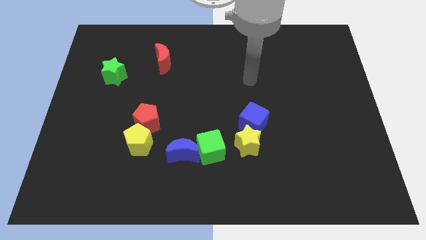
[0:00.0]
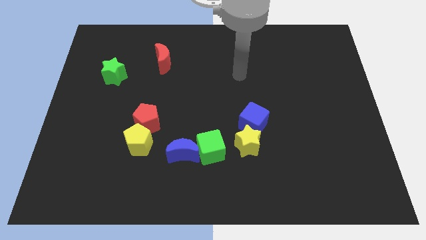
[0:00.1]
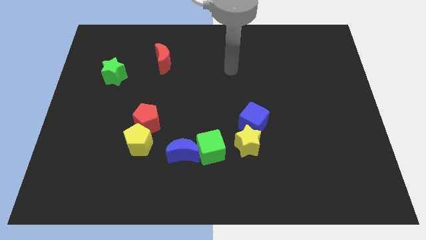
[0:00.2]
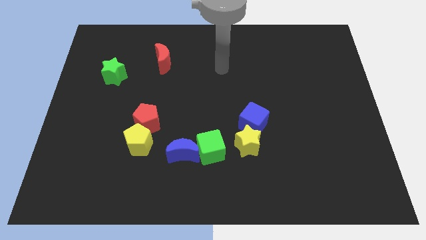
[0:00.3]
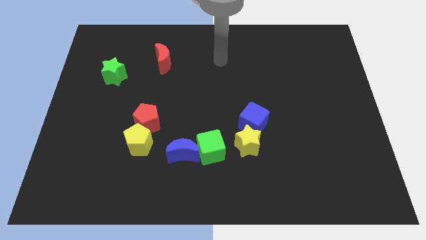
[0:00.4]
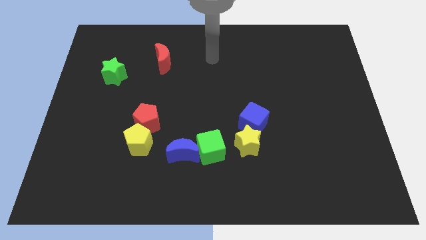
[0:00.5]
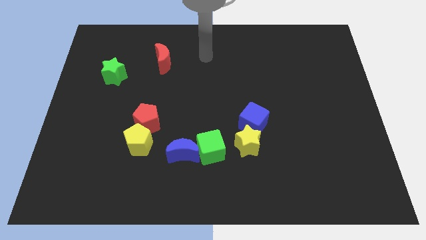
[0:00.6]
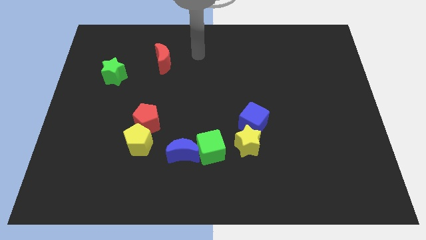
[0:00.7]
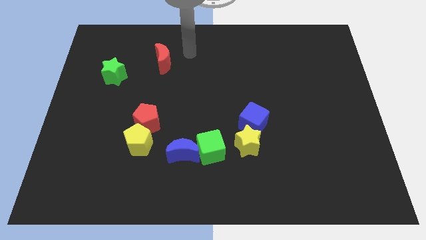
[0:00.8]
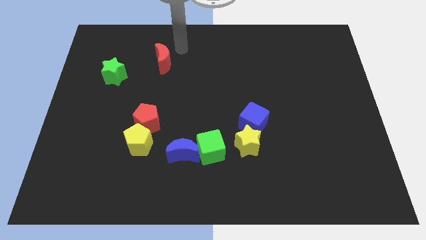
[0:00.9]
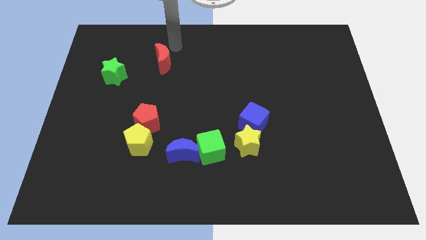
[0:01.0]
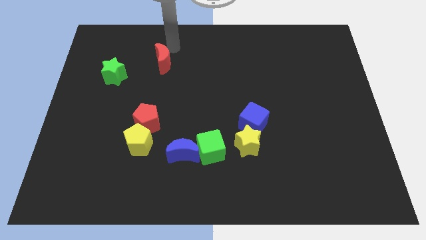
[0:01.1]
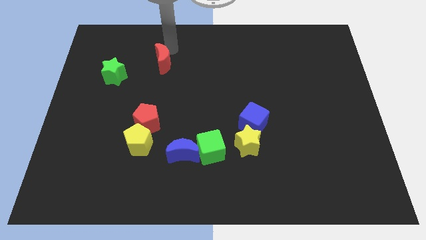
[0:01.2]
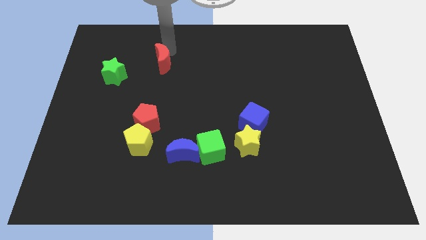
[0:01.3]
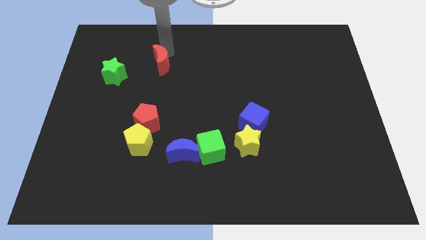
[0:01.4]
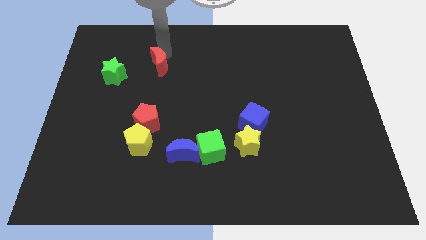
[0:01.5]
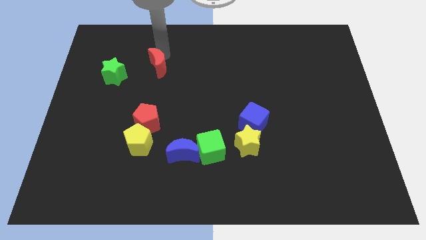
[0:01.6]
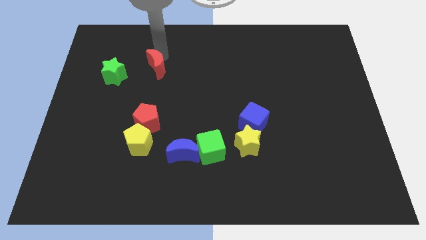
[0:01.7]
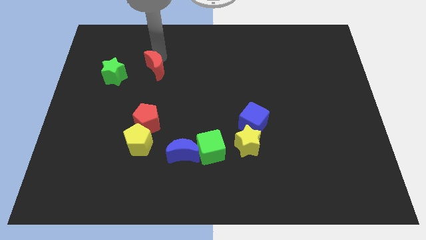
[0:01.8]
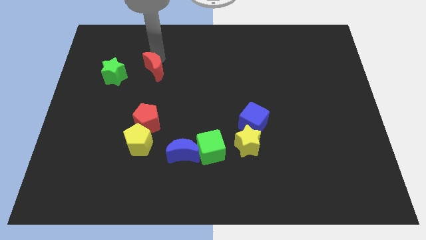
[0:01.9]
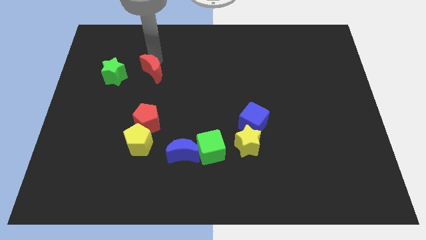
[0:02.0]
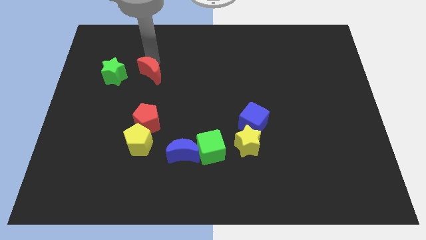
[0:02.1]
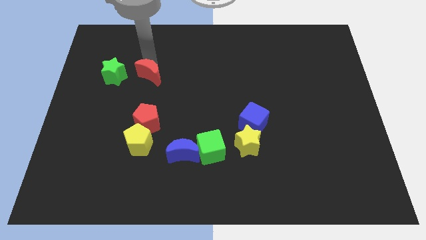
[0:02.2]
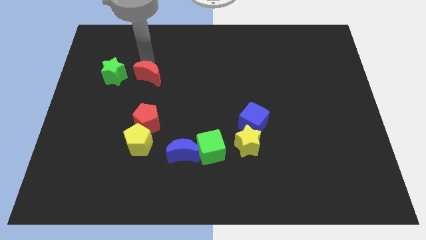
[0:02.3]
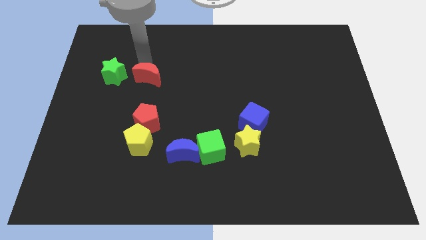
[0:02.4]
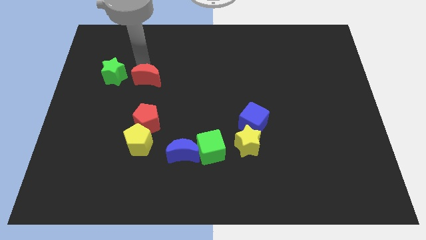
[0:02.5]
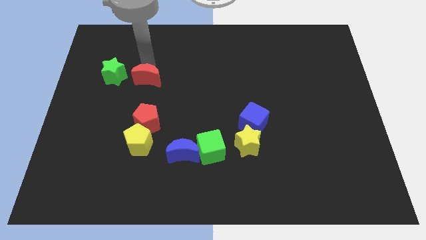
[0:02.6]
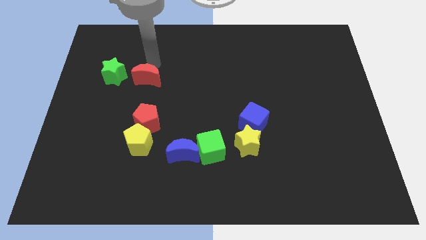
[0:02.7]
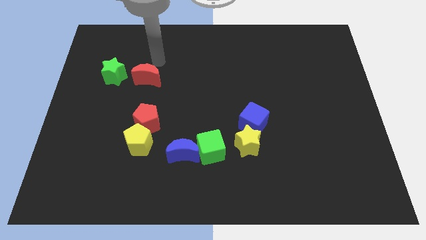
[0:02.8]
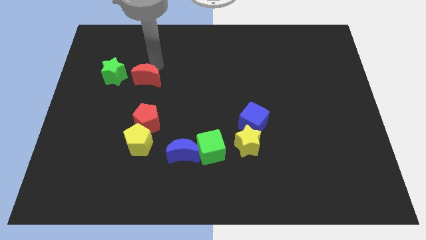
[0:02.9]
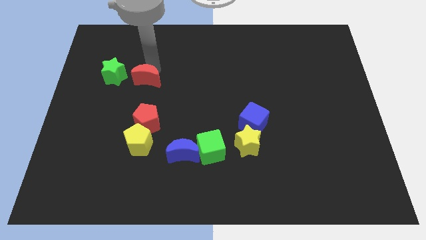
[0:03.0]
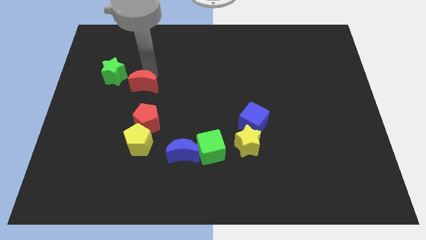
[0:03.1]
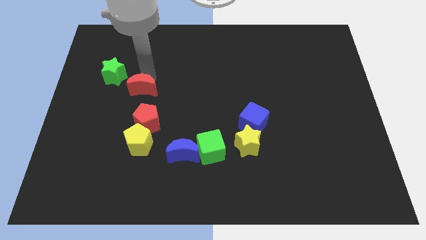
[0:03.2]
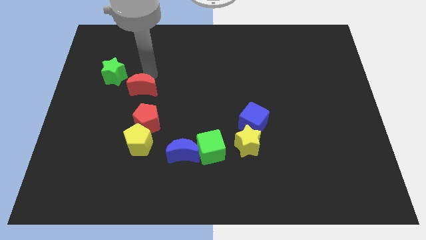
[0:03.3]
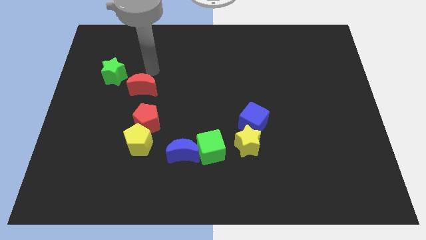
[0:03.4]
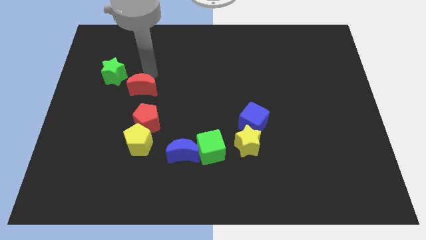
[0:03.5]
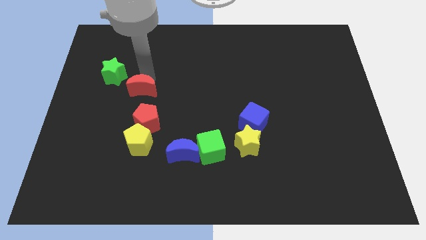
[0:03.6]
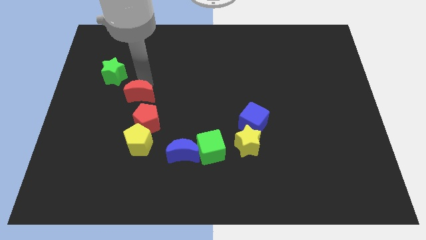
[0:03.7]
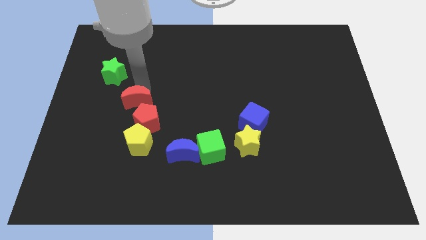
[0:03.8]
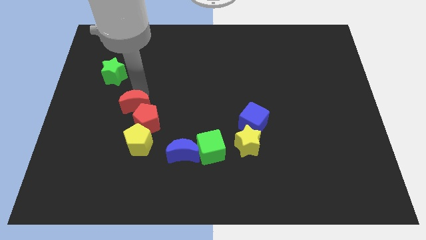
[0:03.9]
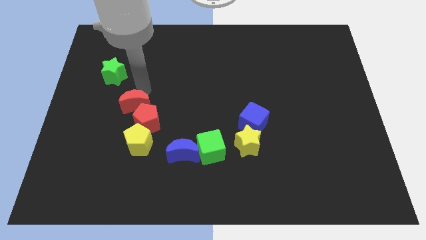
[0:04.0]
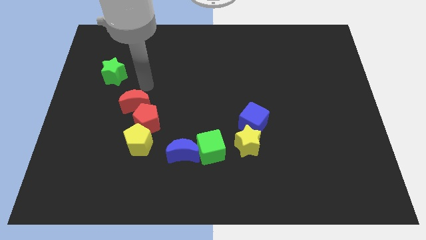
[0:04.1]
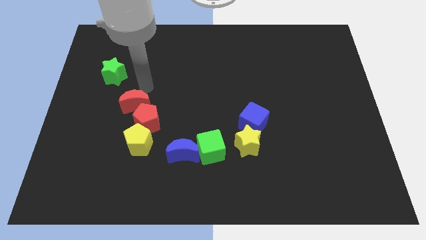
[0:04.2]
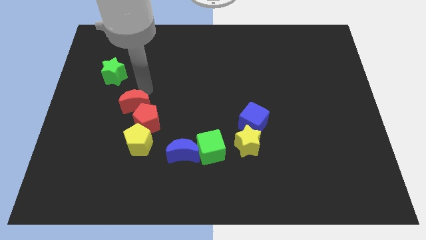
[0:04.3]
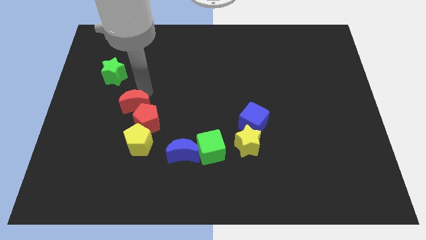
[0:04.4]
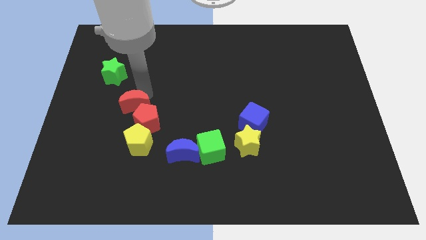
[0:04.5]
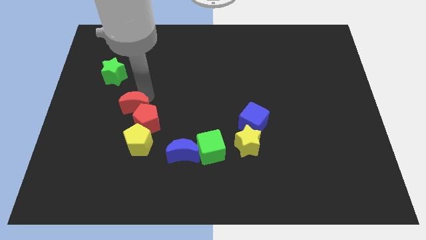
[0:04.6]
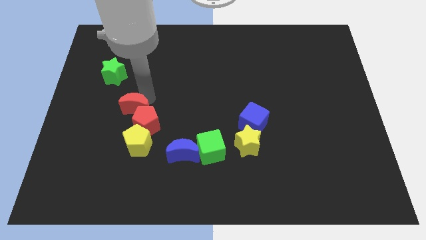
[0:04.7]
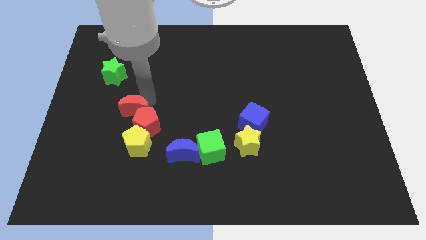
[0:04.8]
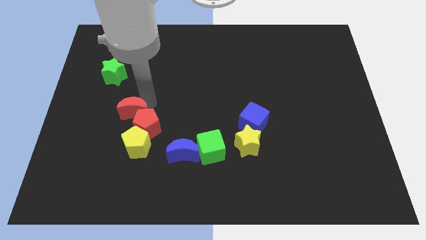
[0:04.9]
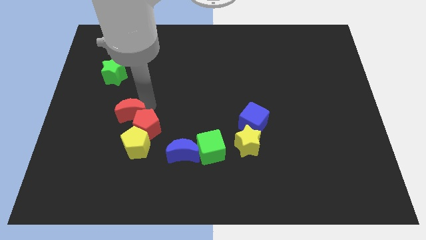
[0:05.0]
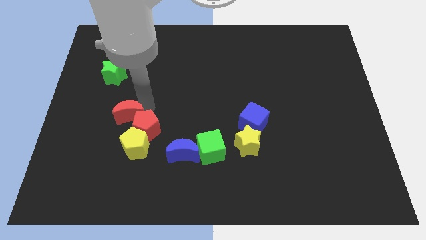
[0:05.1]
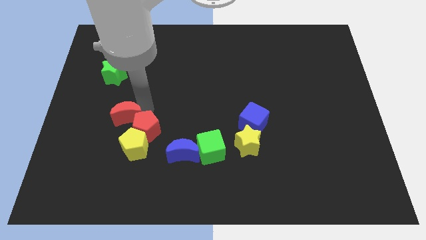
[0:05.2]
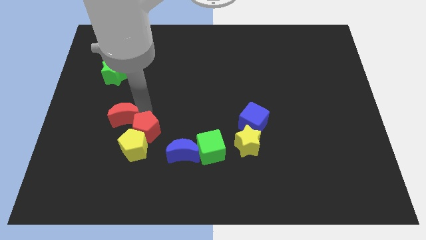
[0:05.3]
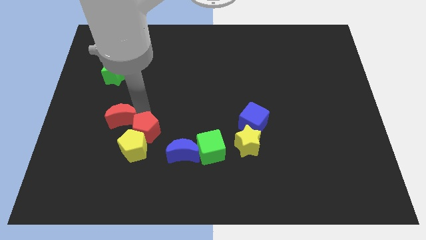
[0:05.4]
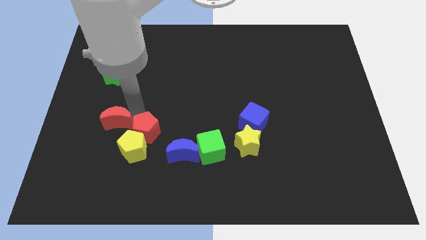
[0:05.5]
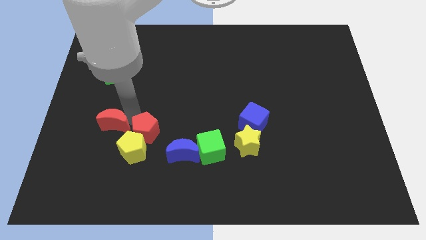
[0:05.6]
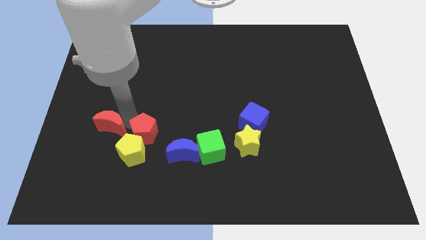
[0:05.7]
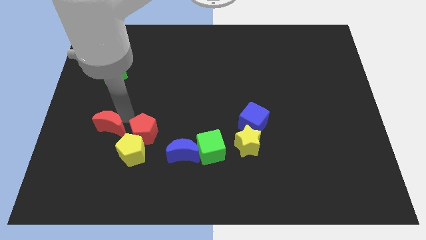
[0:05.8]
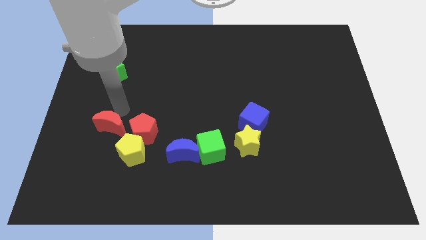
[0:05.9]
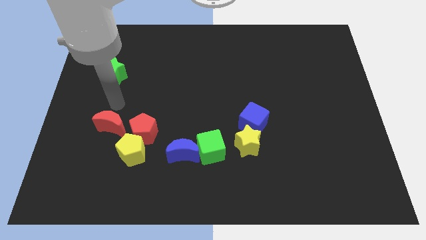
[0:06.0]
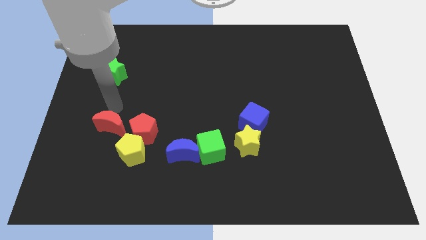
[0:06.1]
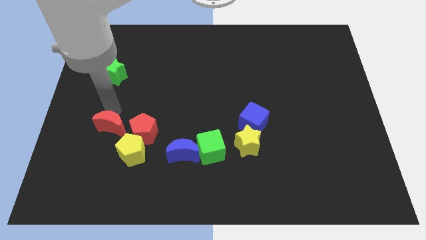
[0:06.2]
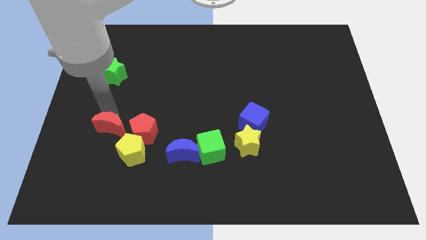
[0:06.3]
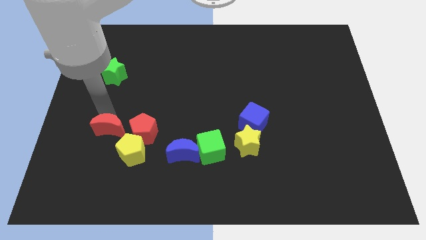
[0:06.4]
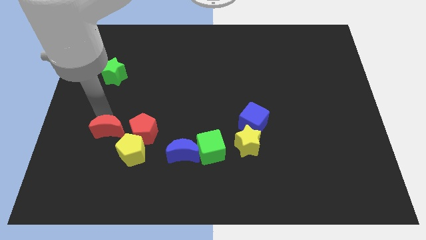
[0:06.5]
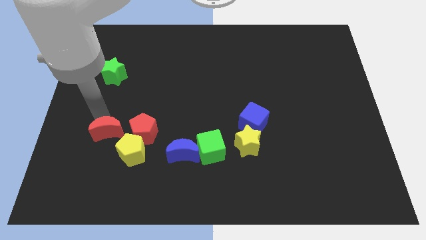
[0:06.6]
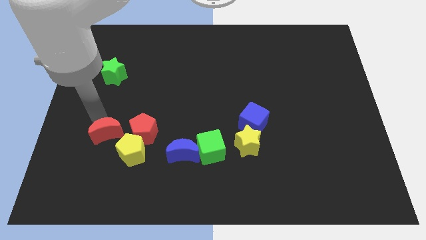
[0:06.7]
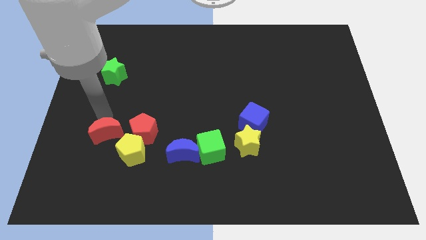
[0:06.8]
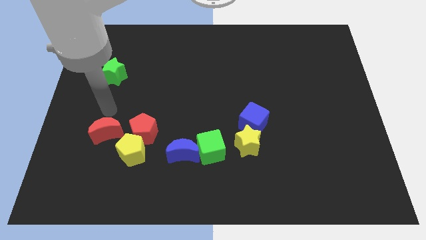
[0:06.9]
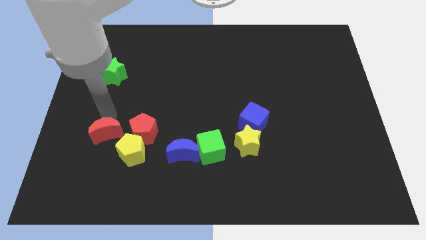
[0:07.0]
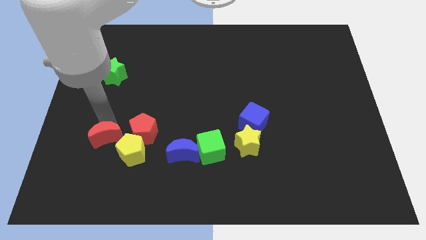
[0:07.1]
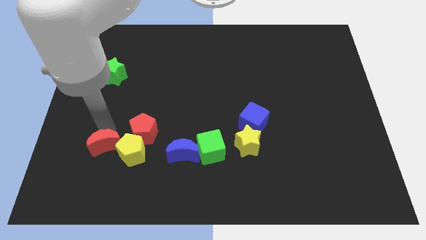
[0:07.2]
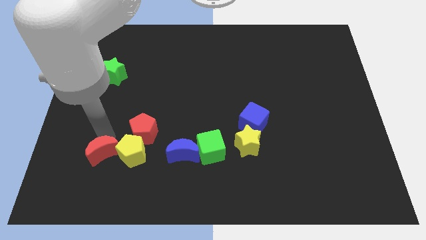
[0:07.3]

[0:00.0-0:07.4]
push the red moon to the bottom left of the yellow pentagon
